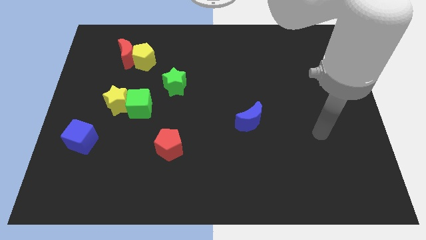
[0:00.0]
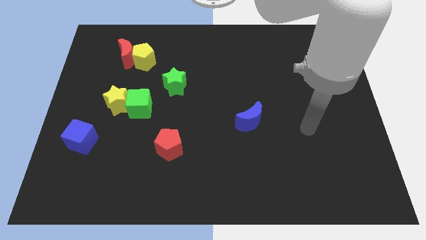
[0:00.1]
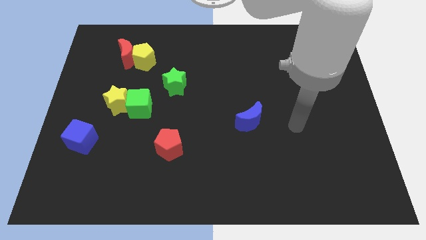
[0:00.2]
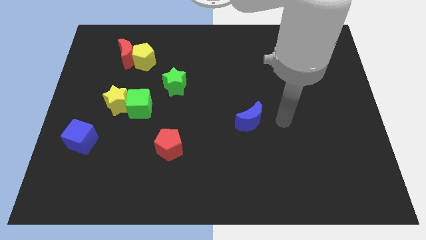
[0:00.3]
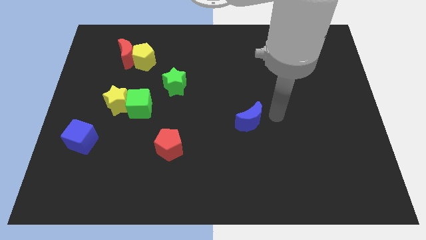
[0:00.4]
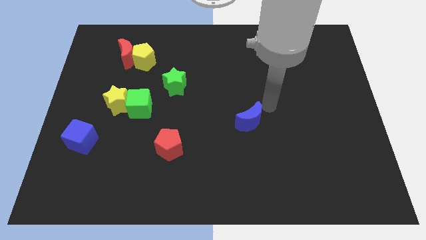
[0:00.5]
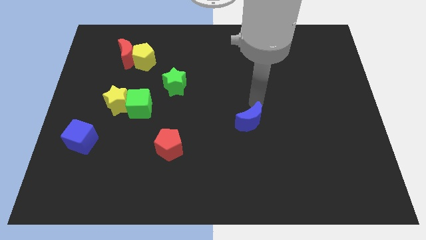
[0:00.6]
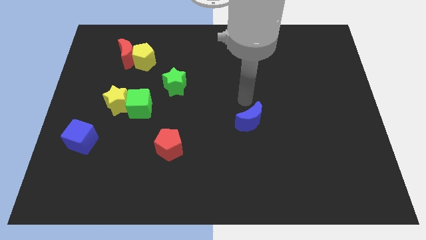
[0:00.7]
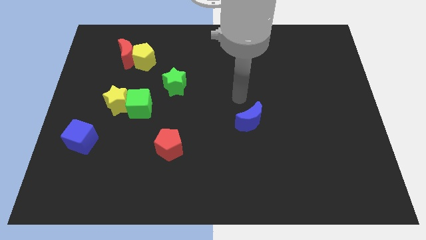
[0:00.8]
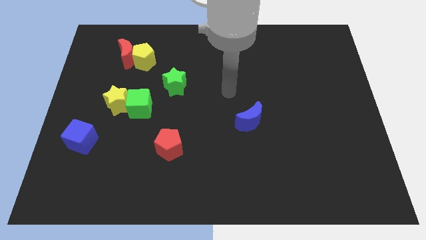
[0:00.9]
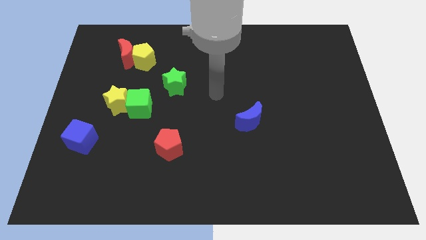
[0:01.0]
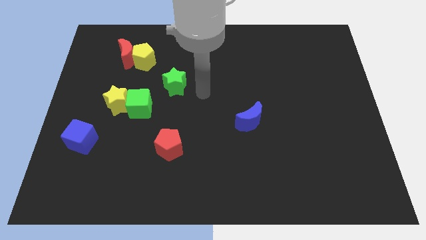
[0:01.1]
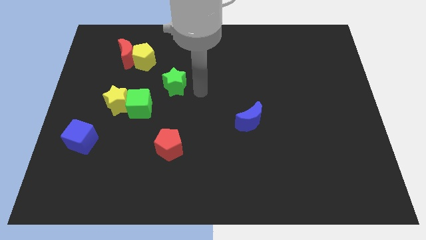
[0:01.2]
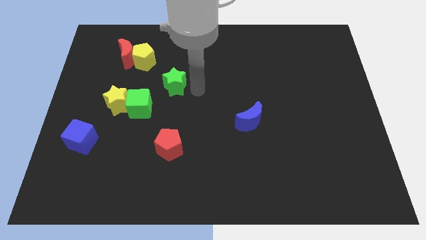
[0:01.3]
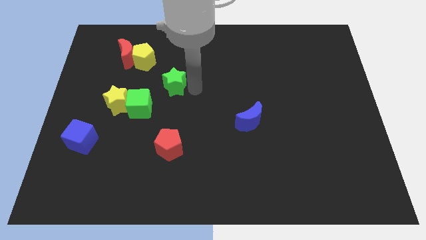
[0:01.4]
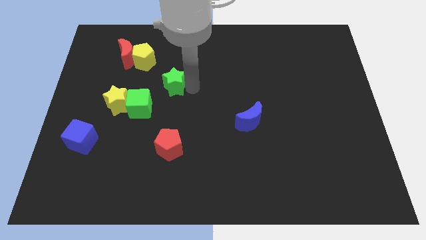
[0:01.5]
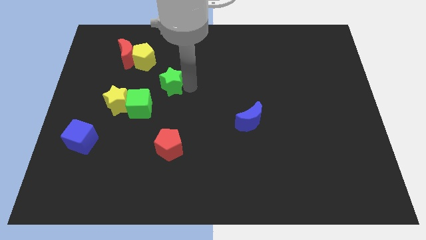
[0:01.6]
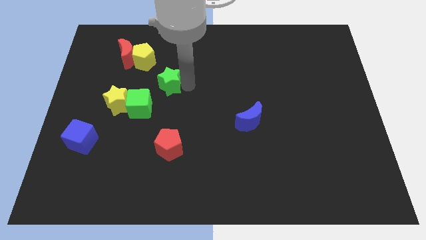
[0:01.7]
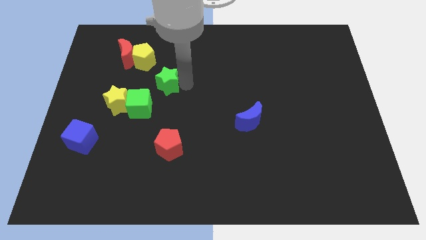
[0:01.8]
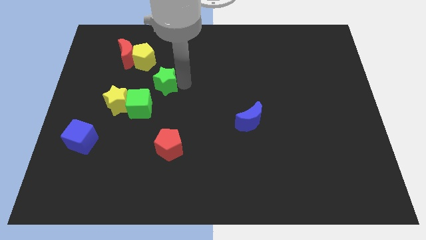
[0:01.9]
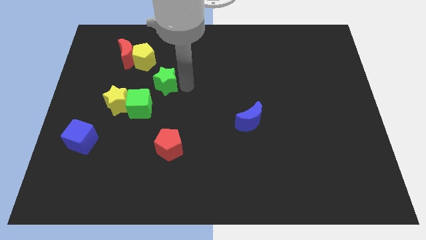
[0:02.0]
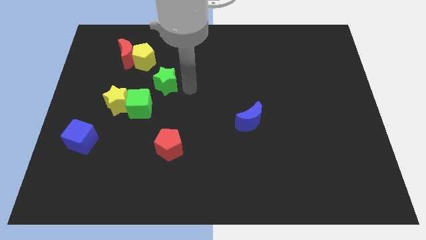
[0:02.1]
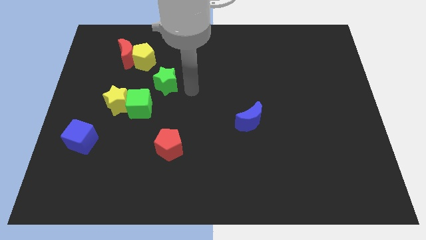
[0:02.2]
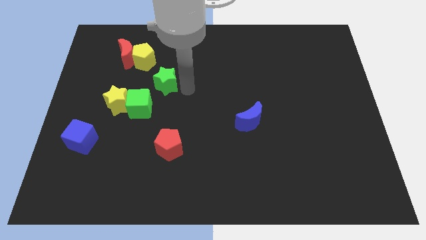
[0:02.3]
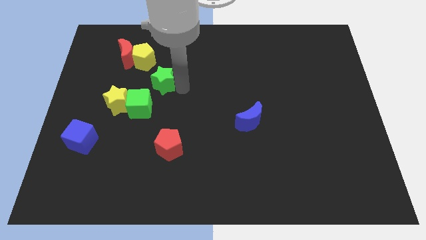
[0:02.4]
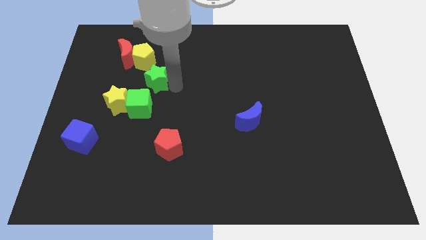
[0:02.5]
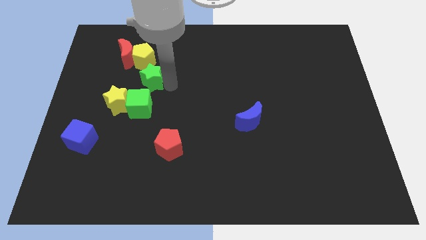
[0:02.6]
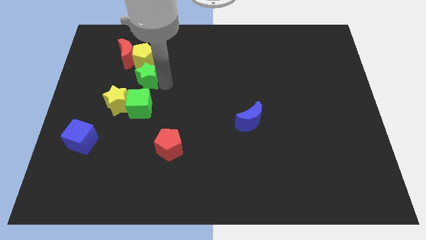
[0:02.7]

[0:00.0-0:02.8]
push the green star slightly left

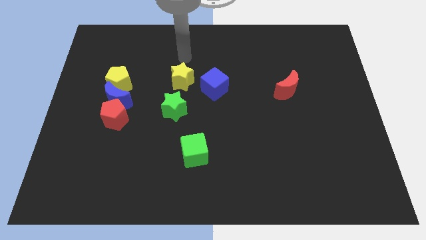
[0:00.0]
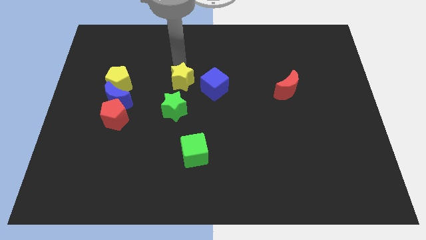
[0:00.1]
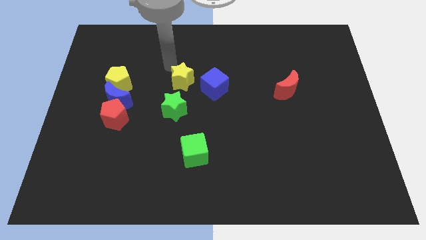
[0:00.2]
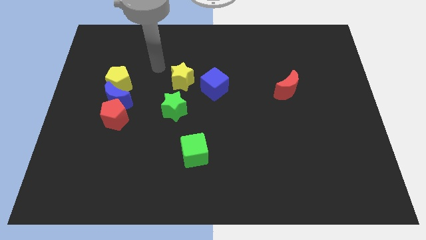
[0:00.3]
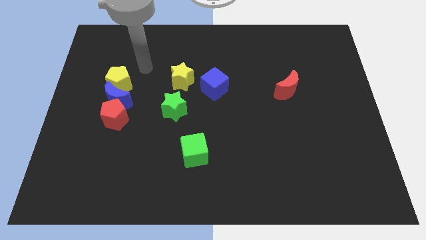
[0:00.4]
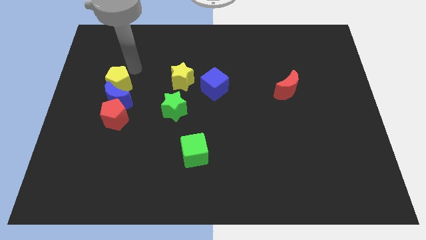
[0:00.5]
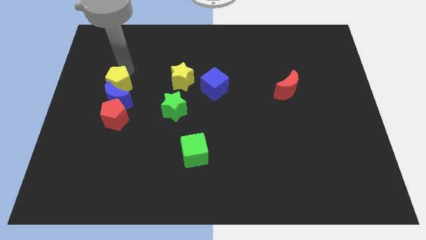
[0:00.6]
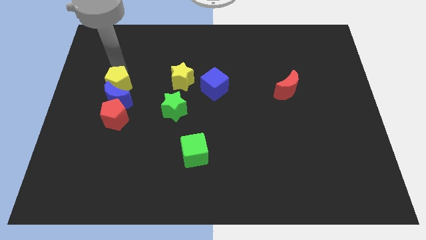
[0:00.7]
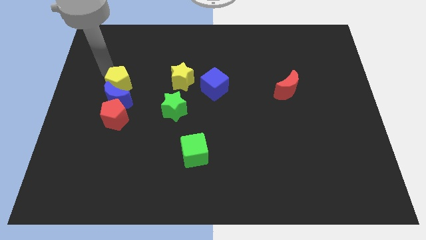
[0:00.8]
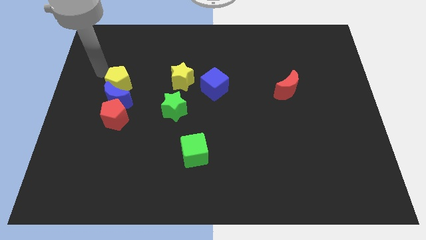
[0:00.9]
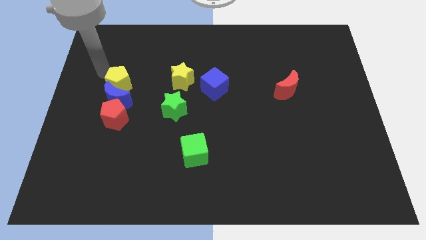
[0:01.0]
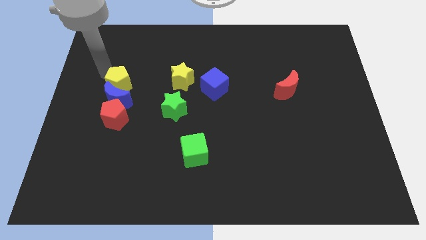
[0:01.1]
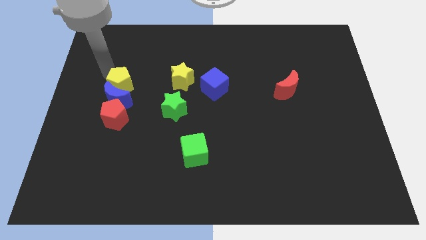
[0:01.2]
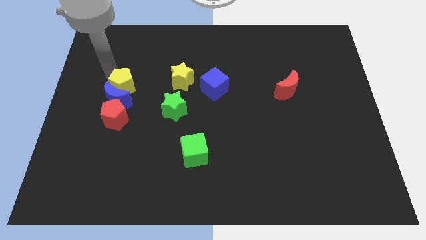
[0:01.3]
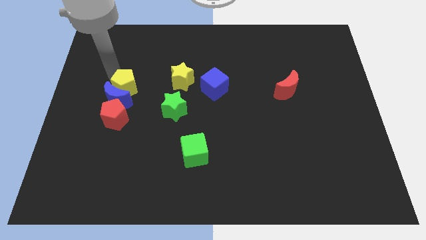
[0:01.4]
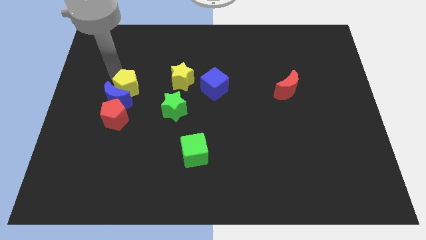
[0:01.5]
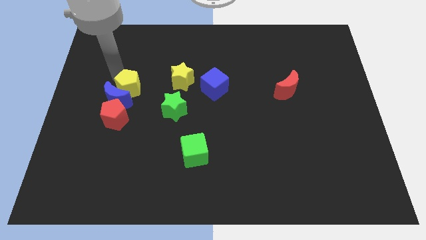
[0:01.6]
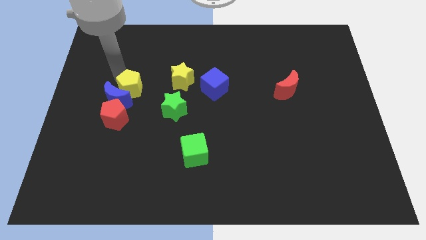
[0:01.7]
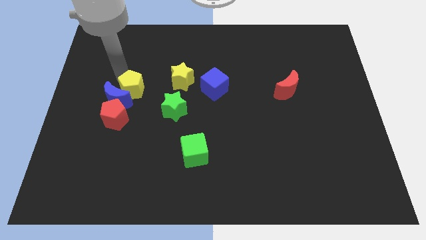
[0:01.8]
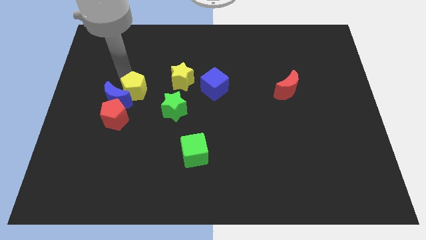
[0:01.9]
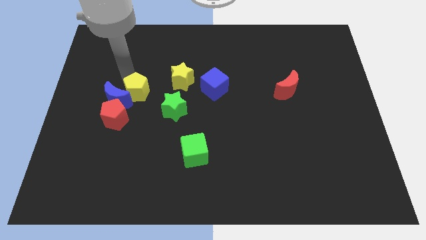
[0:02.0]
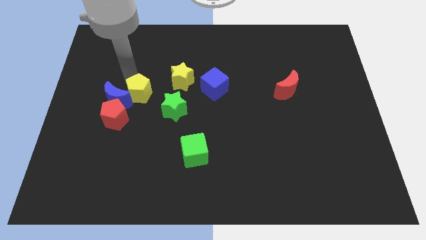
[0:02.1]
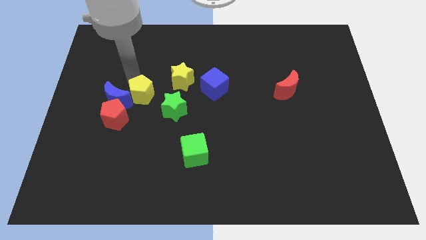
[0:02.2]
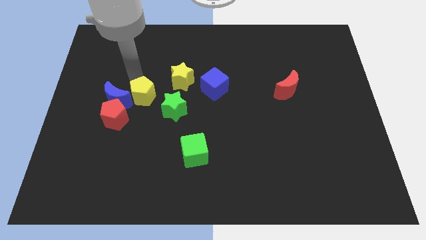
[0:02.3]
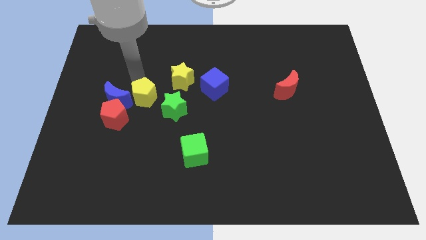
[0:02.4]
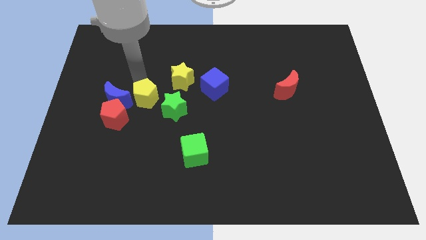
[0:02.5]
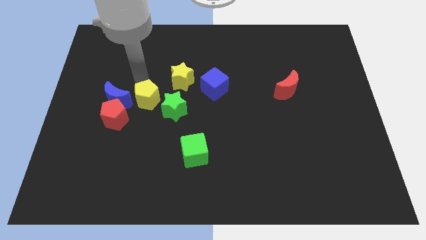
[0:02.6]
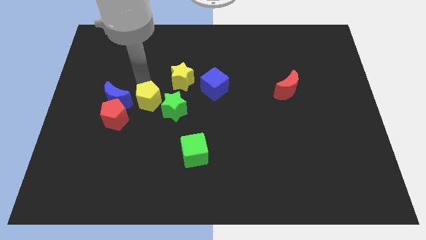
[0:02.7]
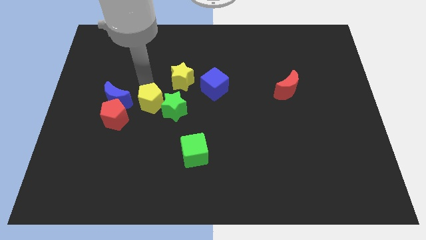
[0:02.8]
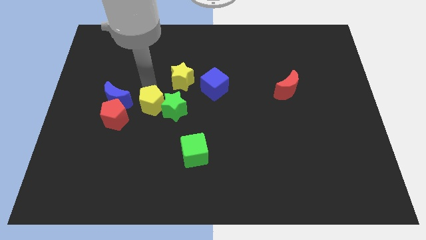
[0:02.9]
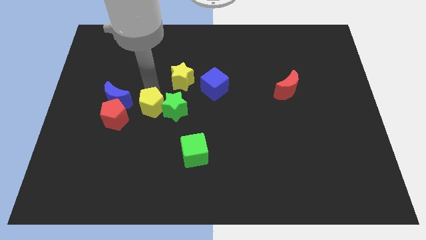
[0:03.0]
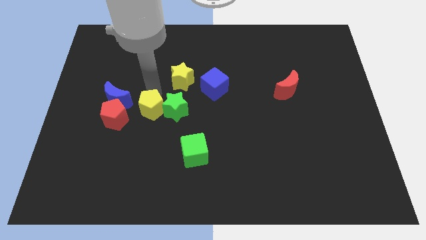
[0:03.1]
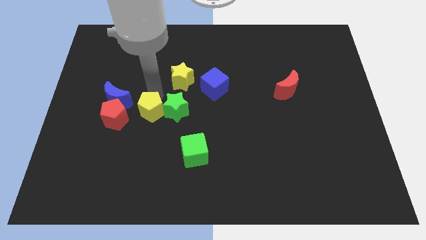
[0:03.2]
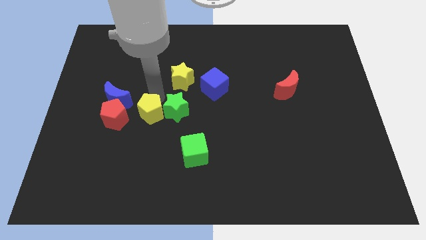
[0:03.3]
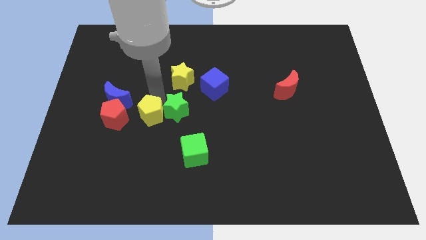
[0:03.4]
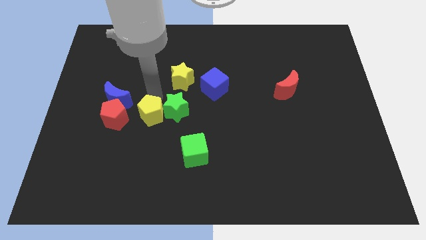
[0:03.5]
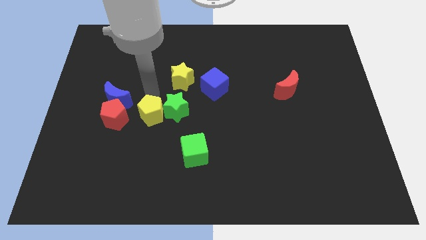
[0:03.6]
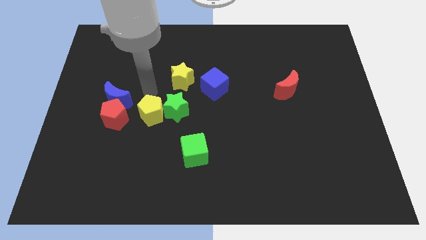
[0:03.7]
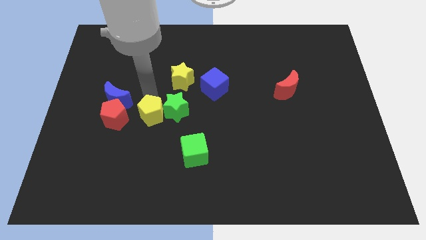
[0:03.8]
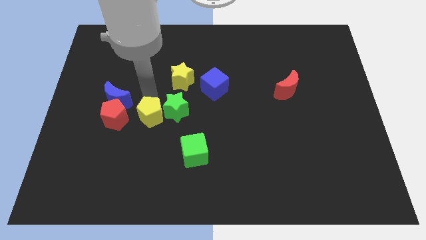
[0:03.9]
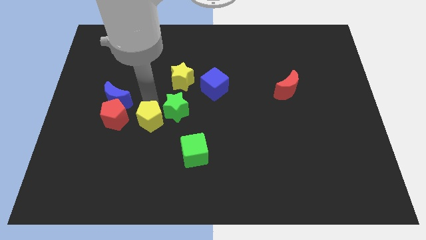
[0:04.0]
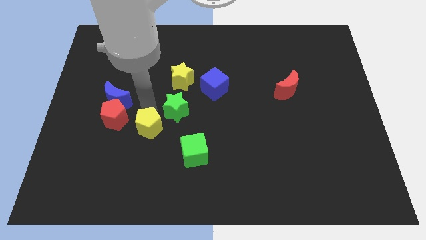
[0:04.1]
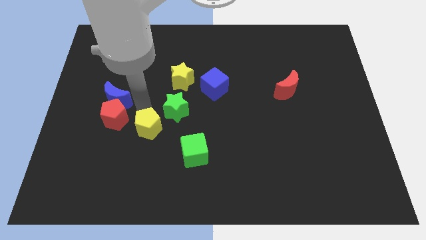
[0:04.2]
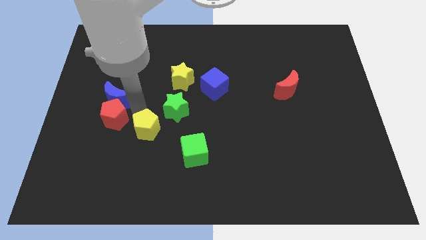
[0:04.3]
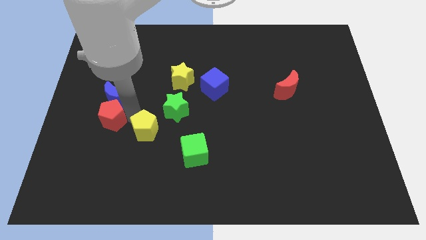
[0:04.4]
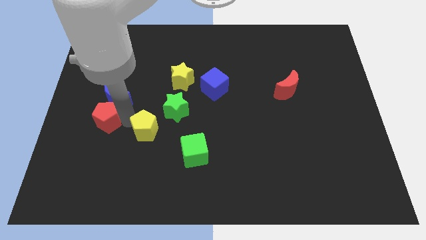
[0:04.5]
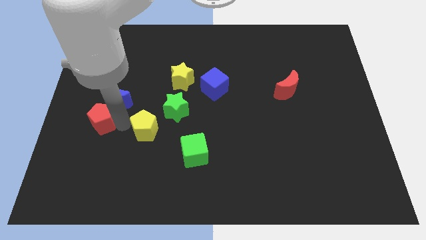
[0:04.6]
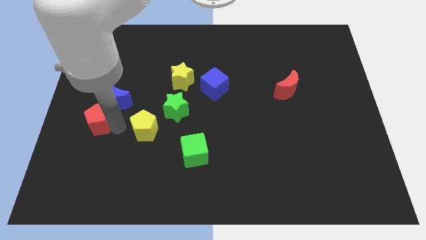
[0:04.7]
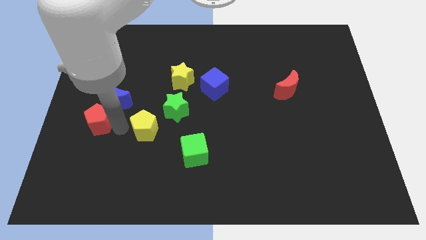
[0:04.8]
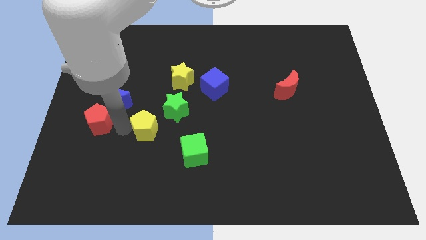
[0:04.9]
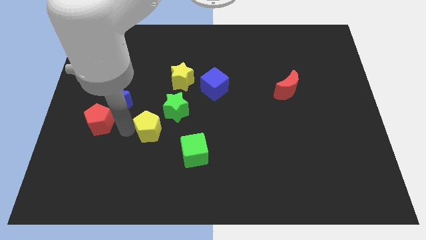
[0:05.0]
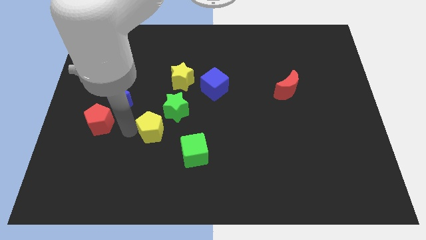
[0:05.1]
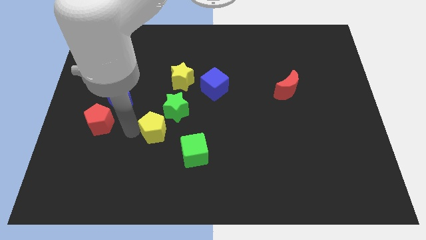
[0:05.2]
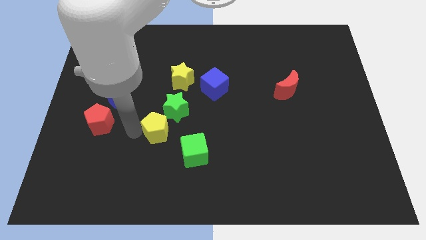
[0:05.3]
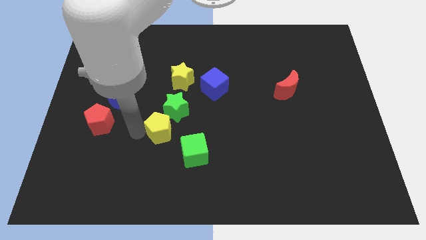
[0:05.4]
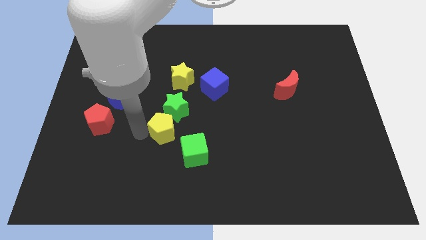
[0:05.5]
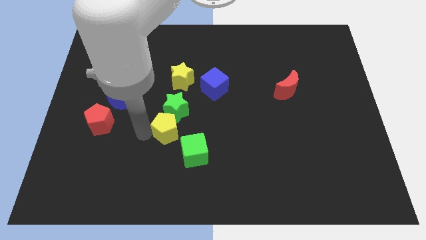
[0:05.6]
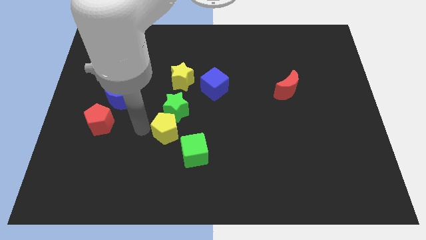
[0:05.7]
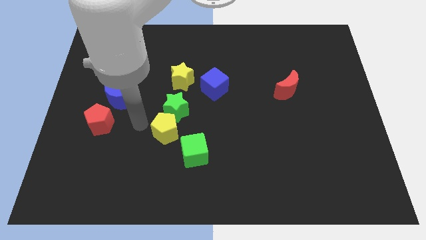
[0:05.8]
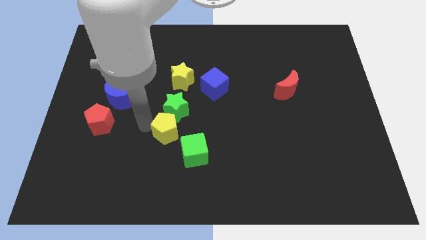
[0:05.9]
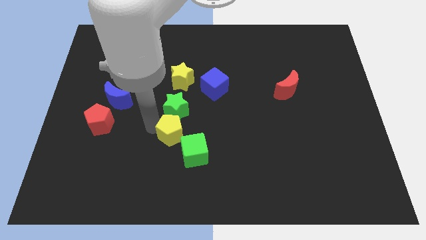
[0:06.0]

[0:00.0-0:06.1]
push the yellow pentagon down and right
